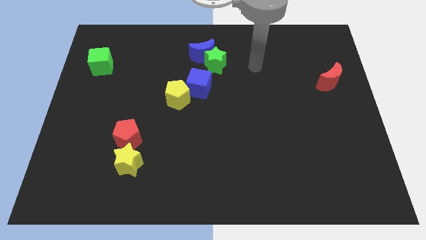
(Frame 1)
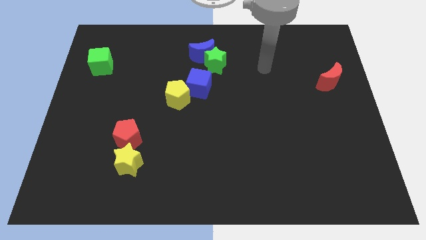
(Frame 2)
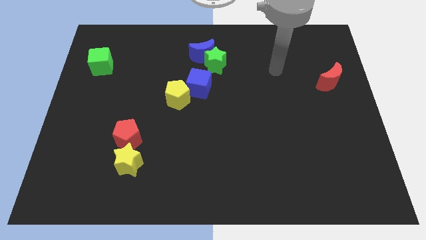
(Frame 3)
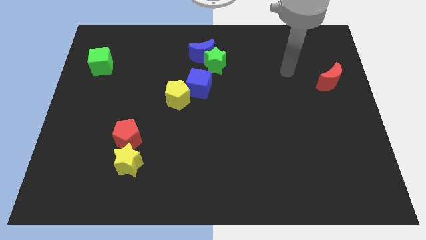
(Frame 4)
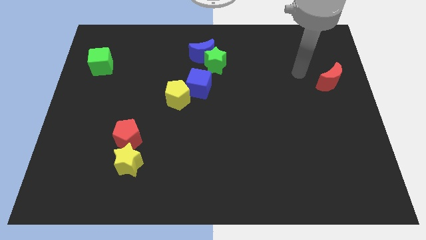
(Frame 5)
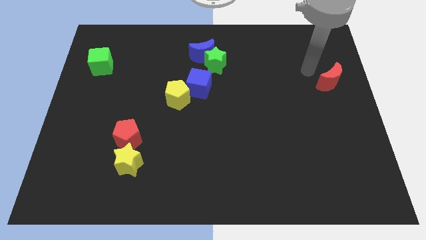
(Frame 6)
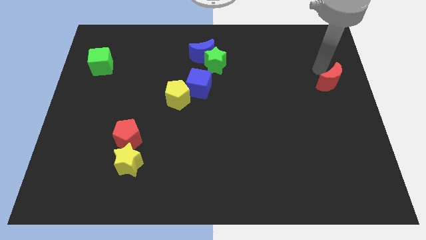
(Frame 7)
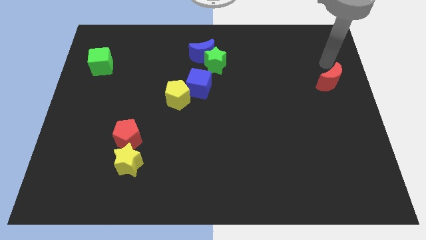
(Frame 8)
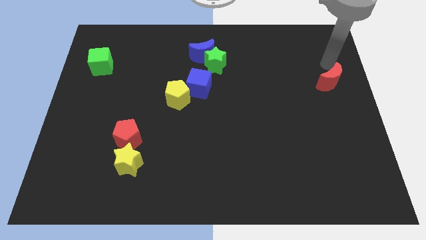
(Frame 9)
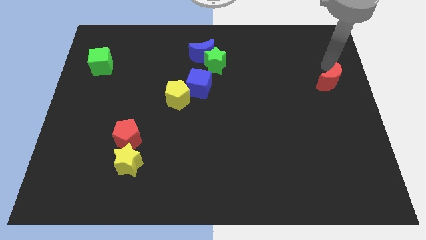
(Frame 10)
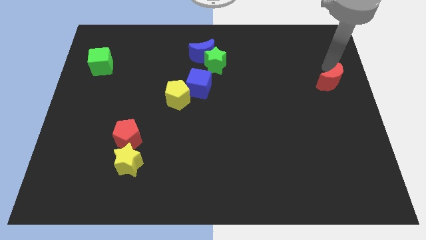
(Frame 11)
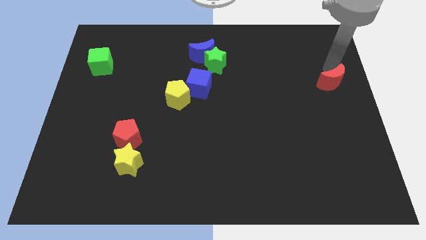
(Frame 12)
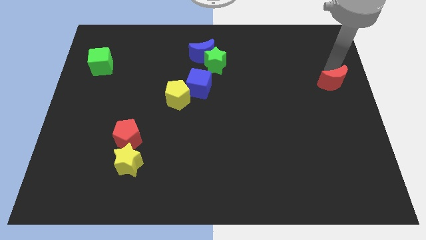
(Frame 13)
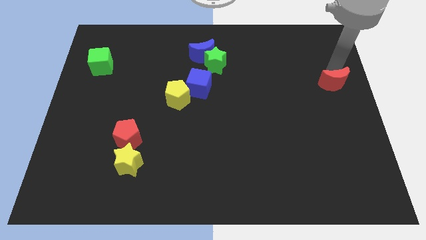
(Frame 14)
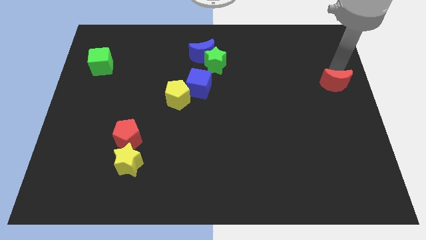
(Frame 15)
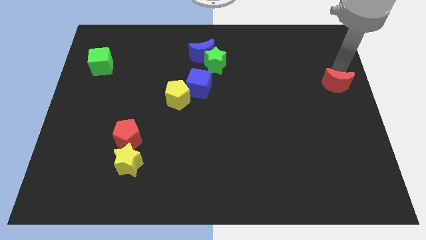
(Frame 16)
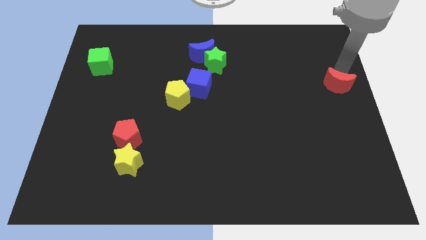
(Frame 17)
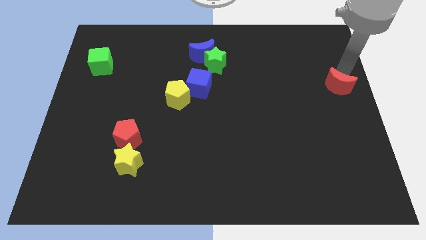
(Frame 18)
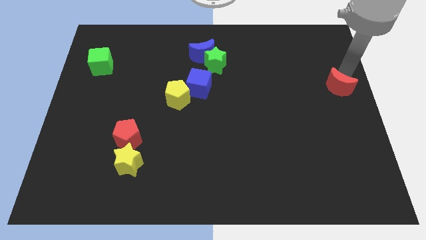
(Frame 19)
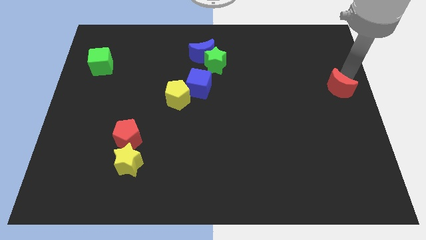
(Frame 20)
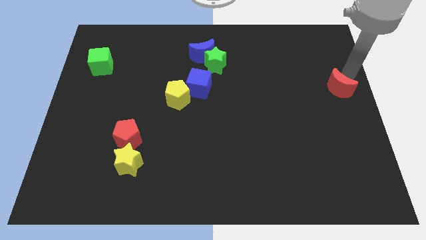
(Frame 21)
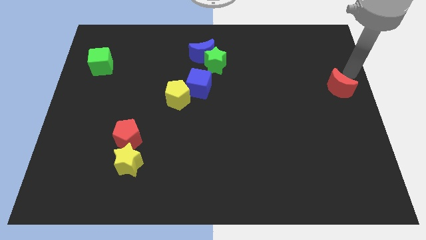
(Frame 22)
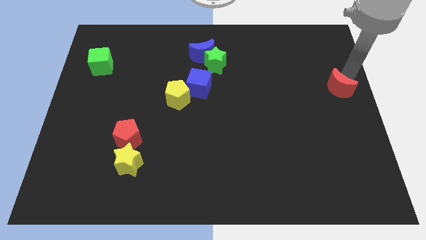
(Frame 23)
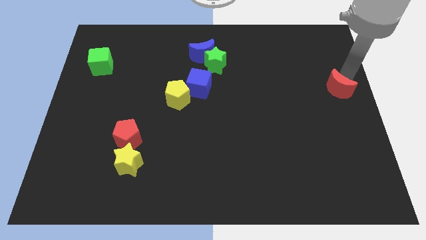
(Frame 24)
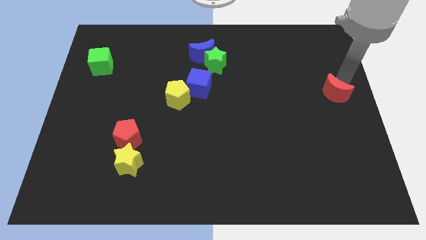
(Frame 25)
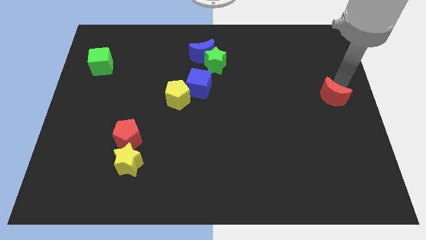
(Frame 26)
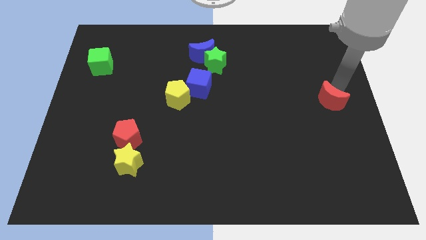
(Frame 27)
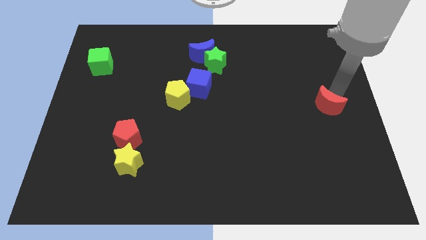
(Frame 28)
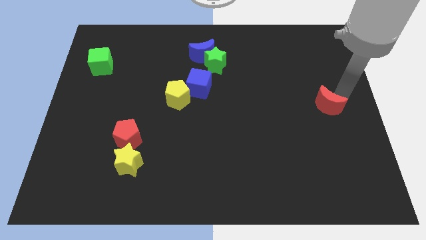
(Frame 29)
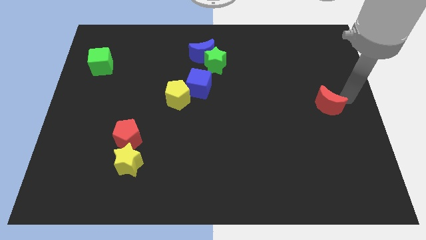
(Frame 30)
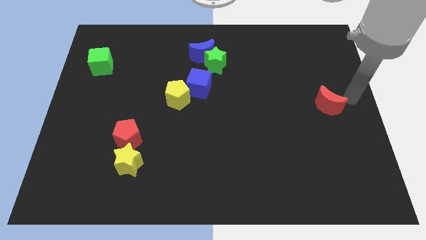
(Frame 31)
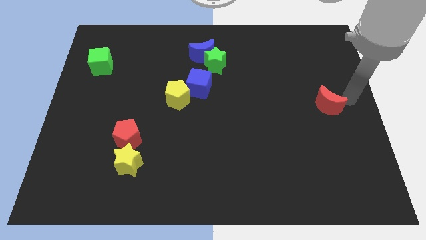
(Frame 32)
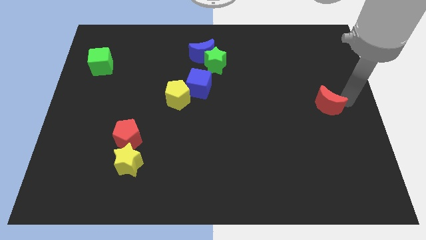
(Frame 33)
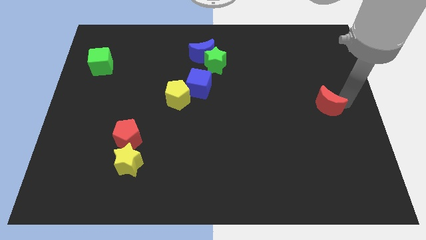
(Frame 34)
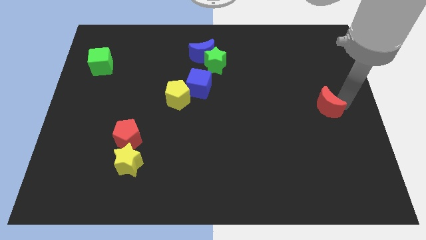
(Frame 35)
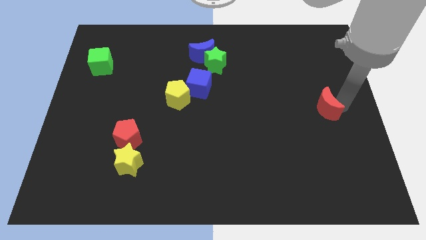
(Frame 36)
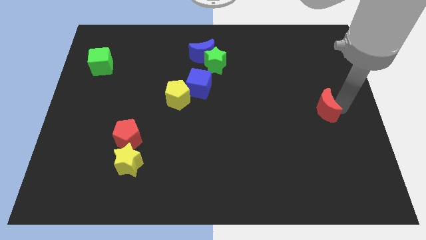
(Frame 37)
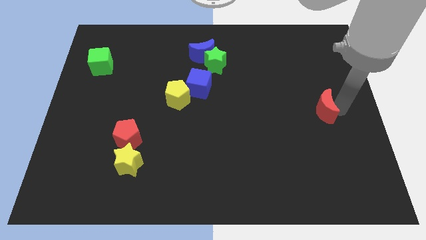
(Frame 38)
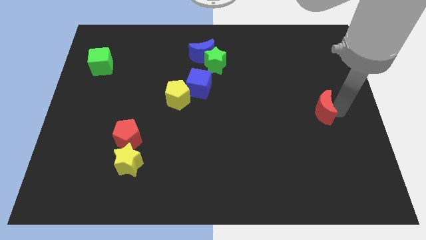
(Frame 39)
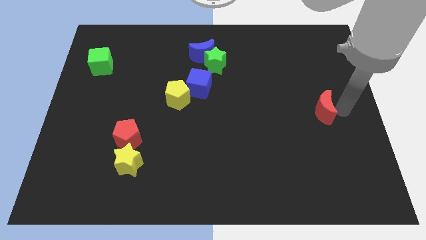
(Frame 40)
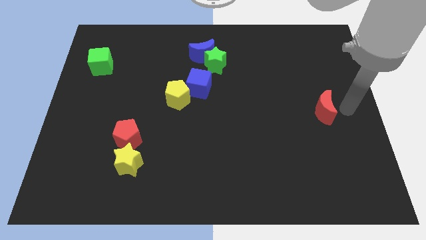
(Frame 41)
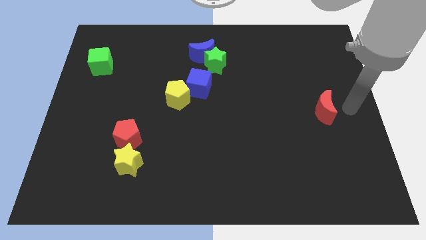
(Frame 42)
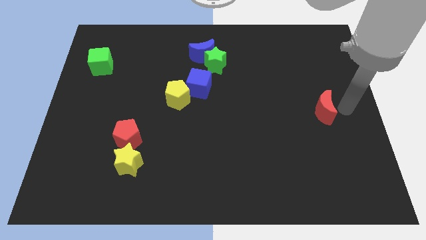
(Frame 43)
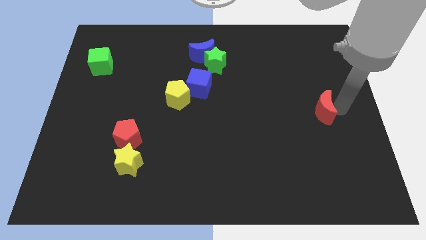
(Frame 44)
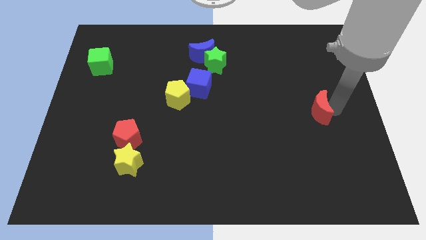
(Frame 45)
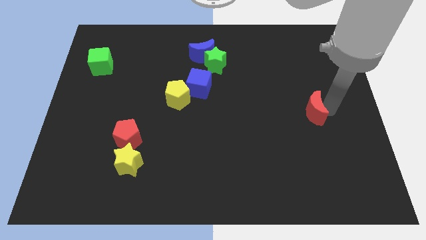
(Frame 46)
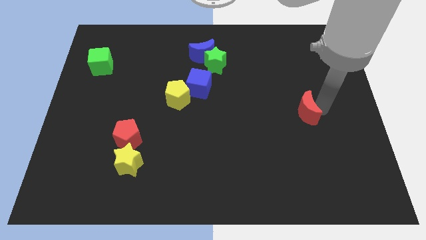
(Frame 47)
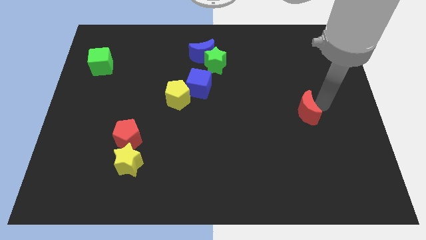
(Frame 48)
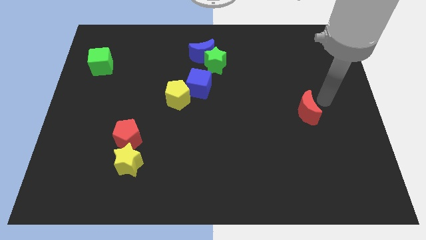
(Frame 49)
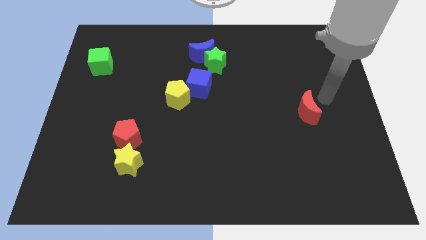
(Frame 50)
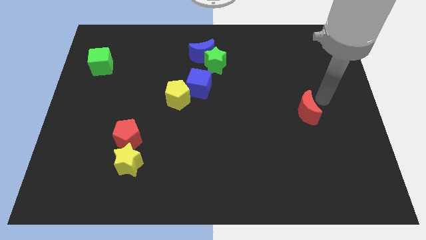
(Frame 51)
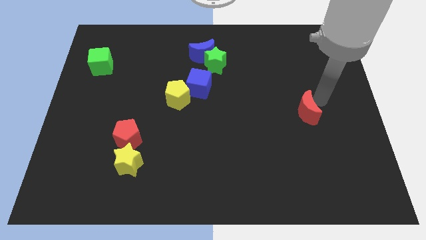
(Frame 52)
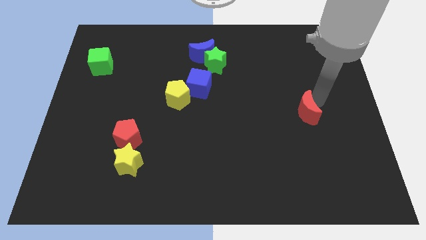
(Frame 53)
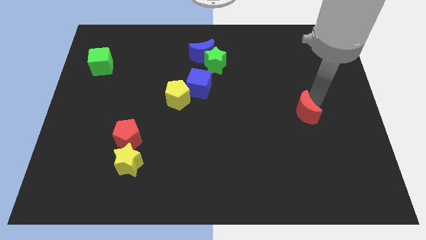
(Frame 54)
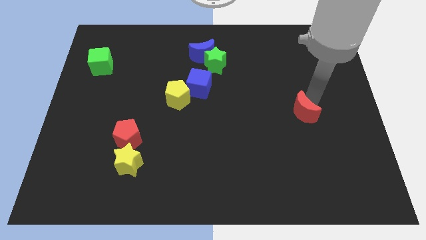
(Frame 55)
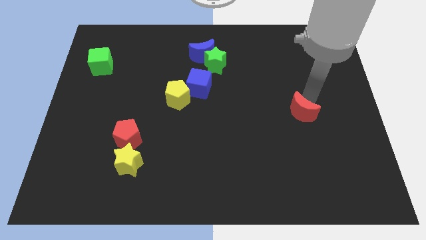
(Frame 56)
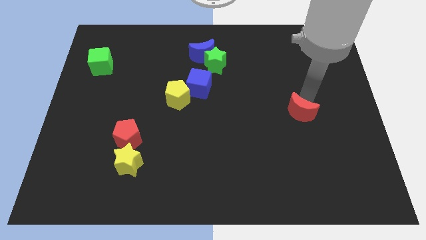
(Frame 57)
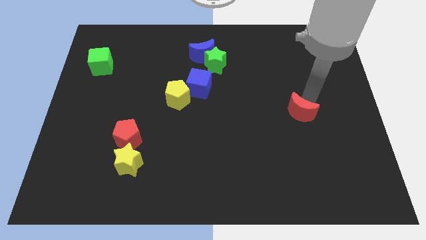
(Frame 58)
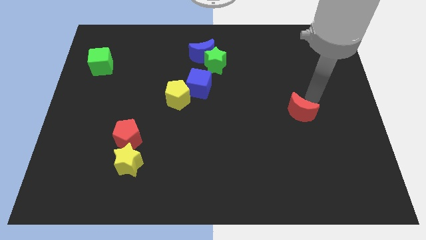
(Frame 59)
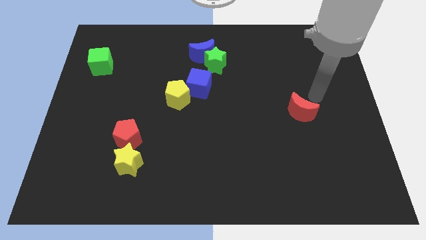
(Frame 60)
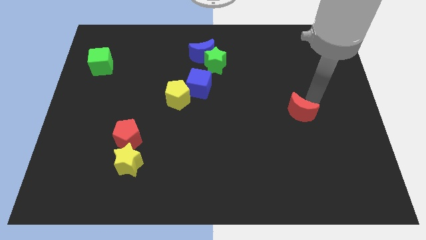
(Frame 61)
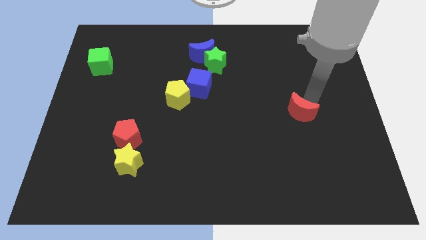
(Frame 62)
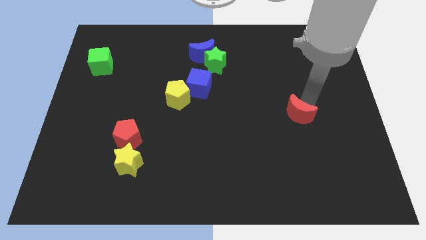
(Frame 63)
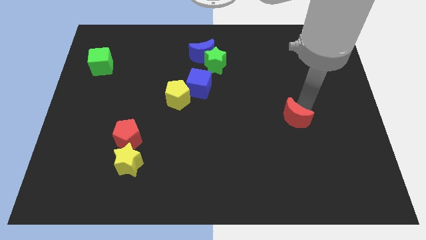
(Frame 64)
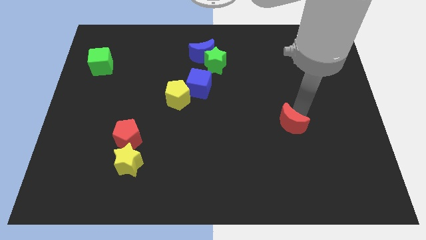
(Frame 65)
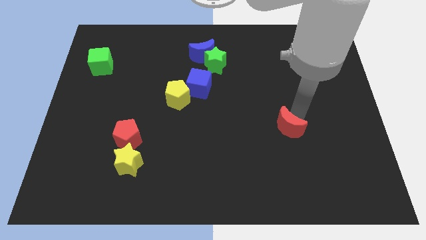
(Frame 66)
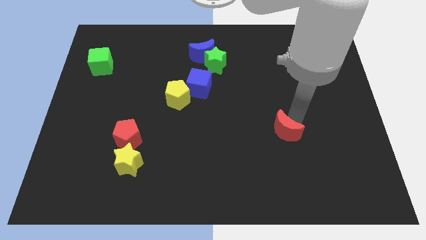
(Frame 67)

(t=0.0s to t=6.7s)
move the red moon downwards and left diagonally

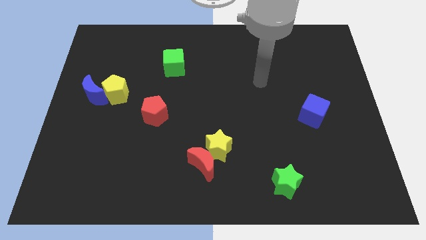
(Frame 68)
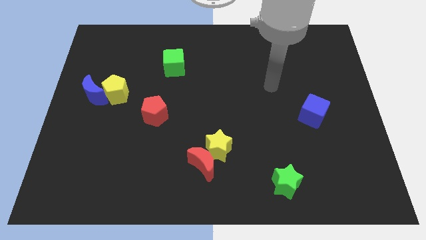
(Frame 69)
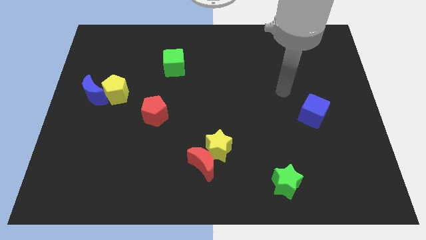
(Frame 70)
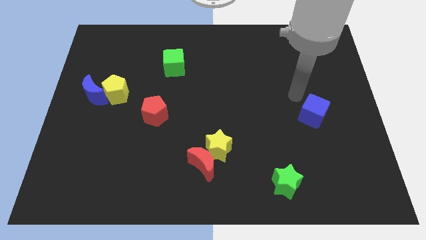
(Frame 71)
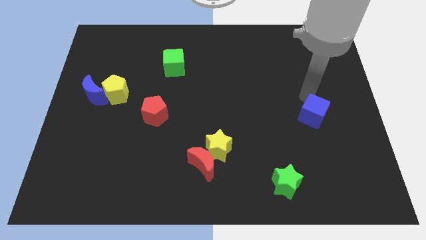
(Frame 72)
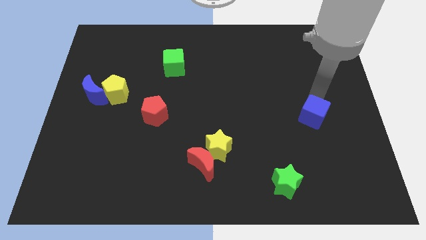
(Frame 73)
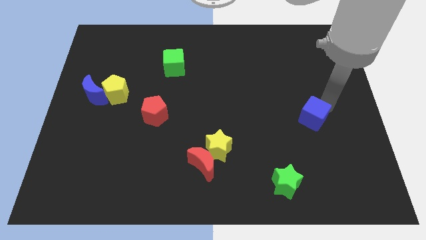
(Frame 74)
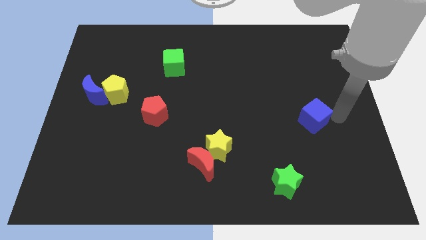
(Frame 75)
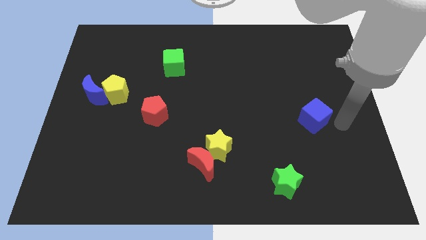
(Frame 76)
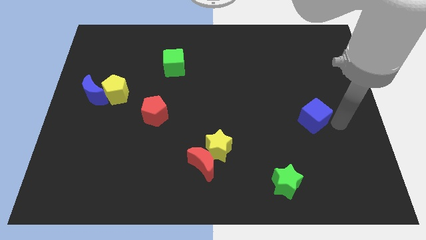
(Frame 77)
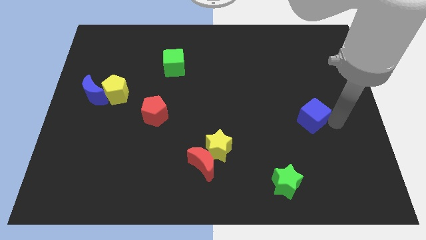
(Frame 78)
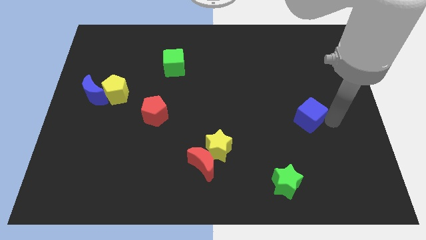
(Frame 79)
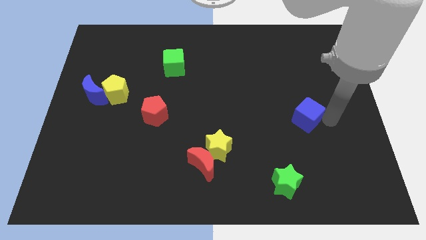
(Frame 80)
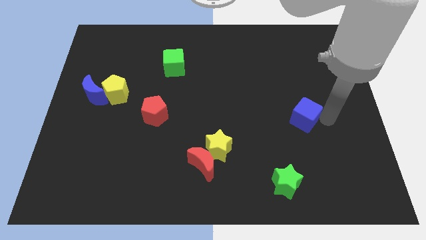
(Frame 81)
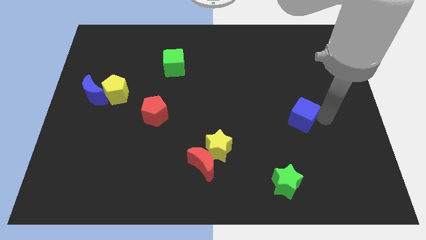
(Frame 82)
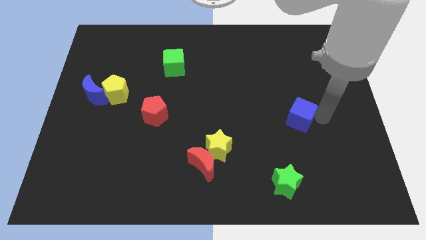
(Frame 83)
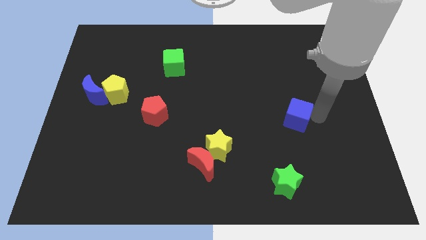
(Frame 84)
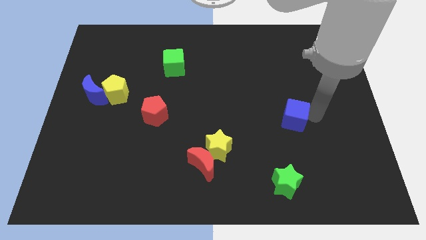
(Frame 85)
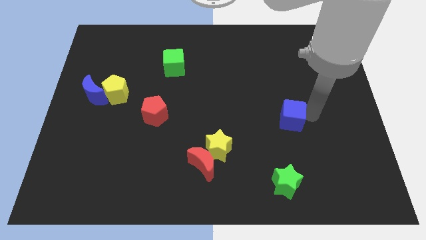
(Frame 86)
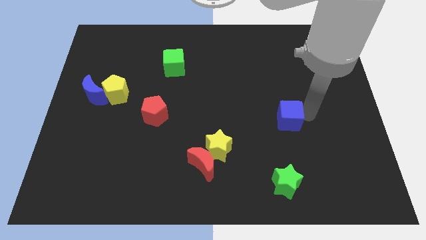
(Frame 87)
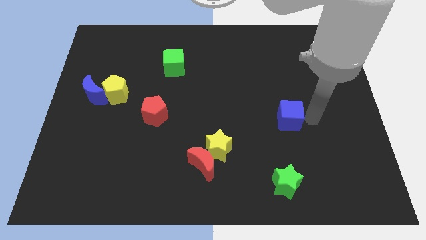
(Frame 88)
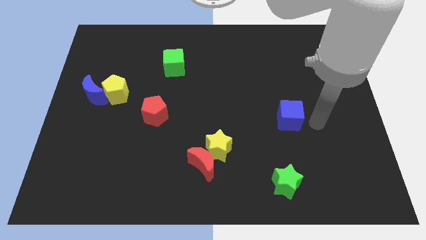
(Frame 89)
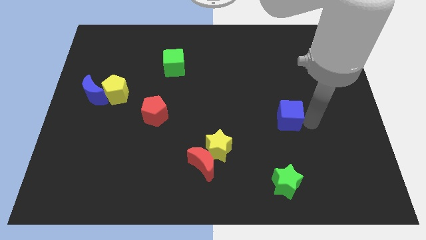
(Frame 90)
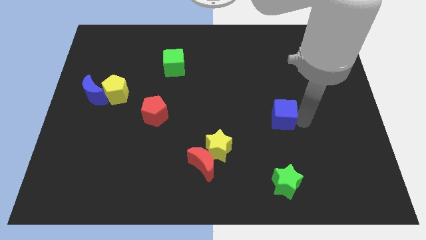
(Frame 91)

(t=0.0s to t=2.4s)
slightly move the blue cube left
